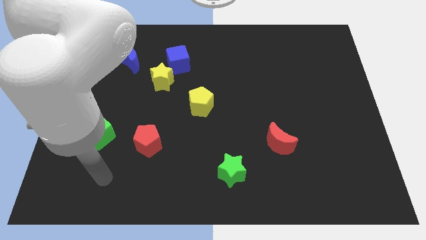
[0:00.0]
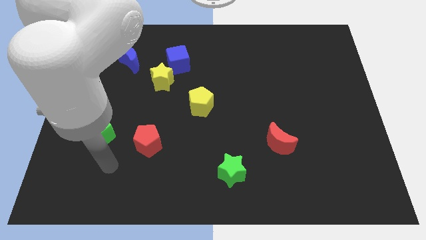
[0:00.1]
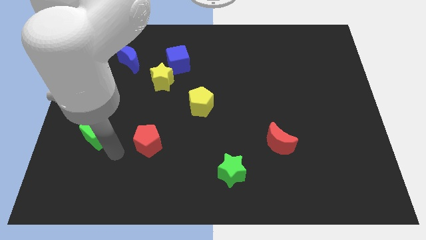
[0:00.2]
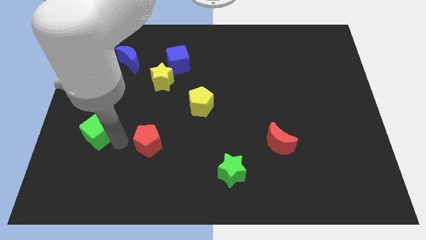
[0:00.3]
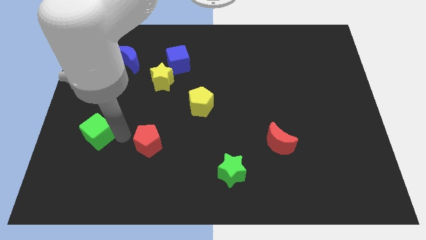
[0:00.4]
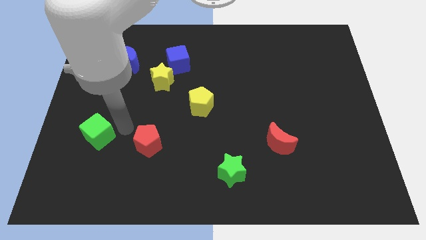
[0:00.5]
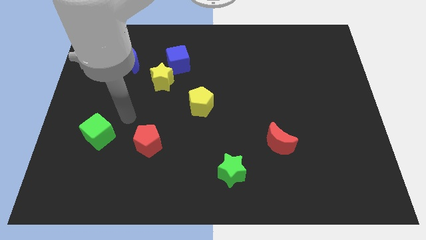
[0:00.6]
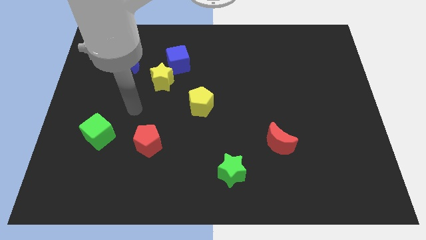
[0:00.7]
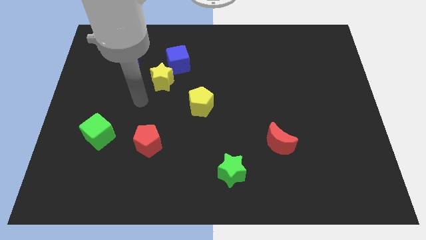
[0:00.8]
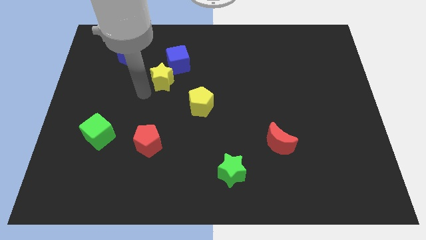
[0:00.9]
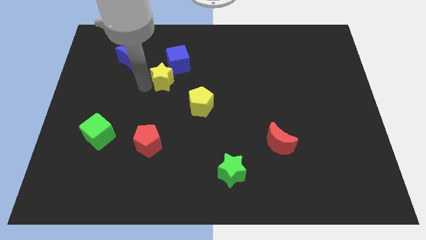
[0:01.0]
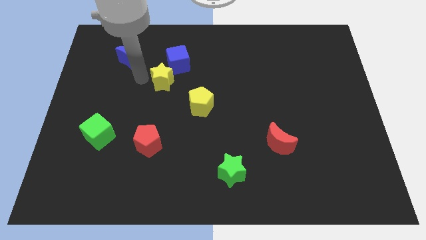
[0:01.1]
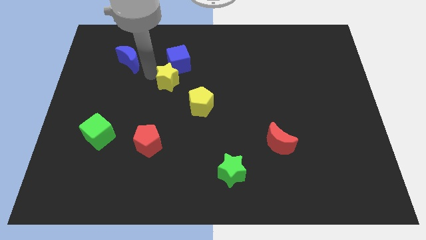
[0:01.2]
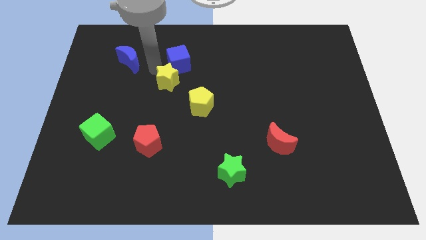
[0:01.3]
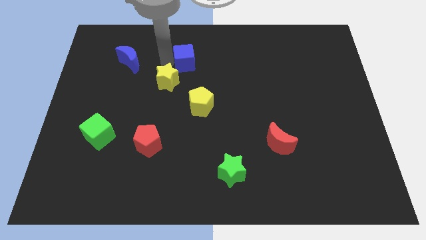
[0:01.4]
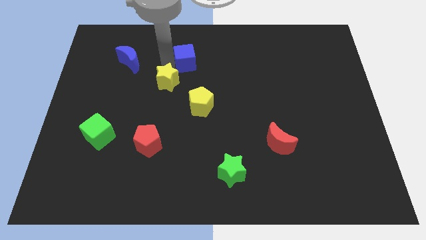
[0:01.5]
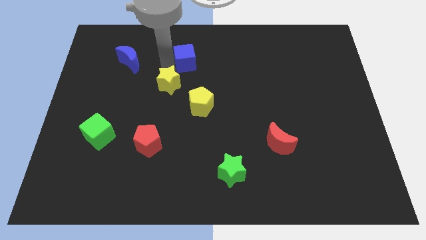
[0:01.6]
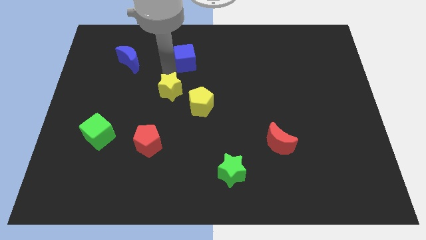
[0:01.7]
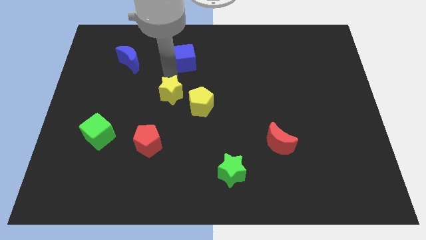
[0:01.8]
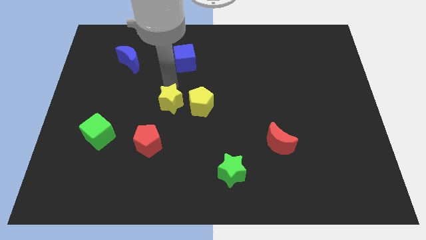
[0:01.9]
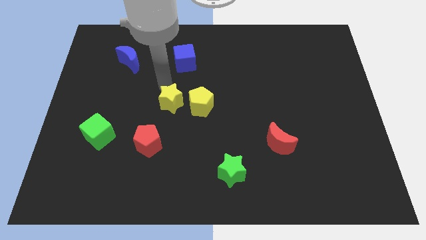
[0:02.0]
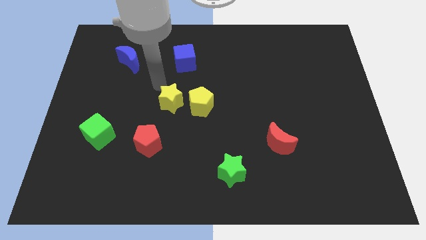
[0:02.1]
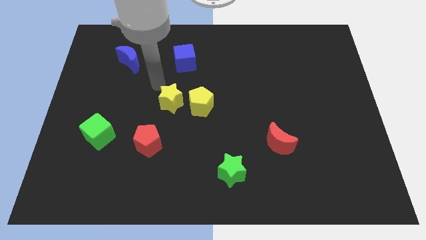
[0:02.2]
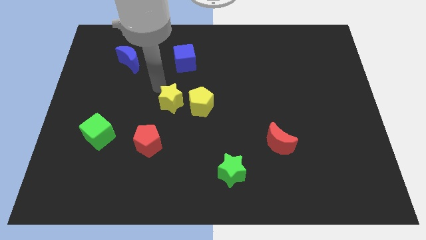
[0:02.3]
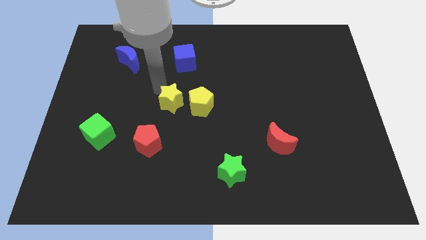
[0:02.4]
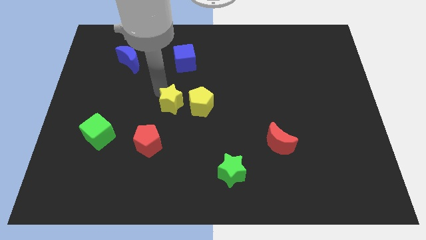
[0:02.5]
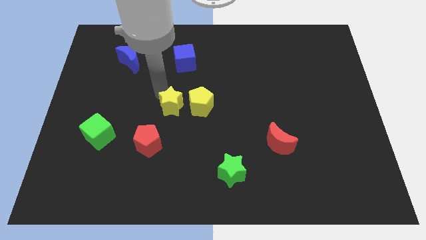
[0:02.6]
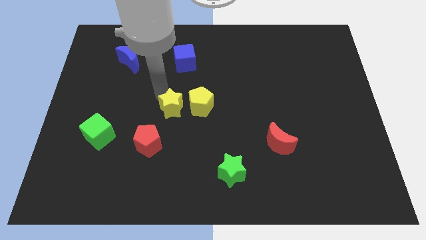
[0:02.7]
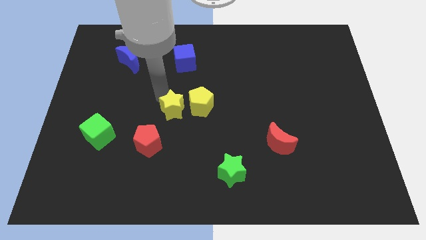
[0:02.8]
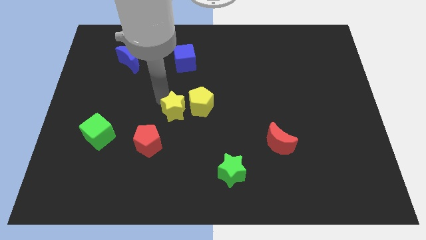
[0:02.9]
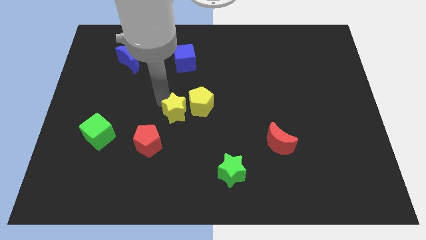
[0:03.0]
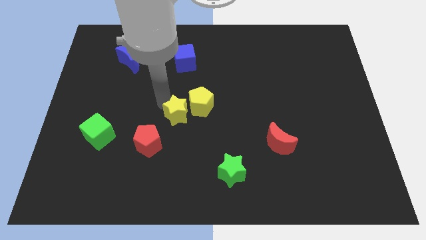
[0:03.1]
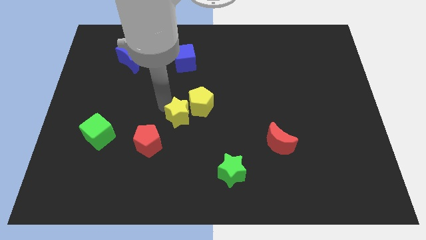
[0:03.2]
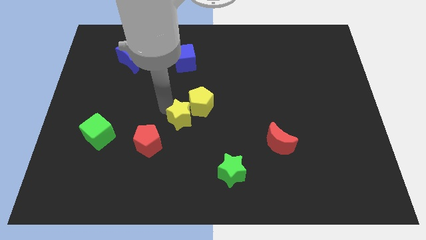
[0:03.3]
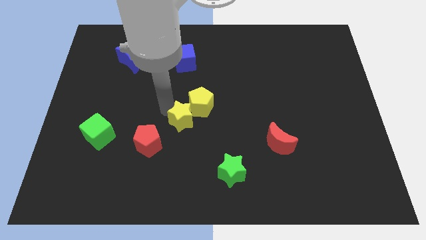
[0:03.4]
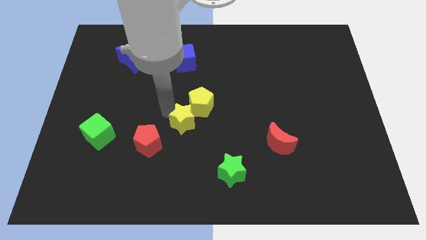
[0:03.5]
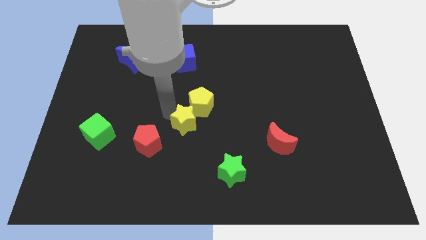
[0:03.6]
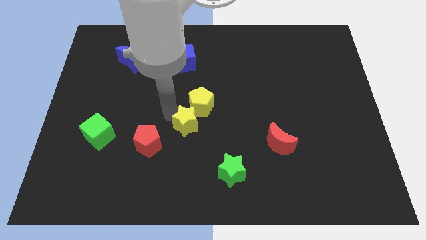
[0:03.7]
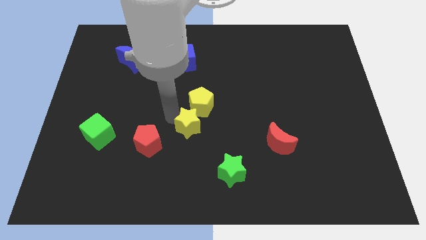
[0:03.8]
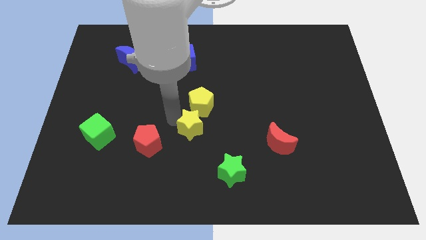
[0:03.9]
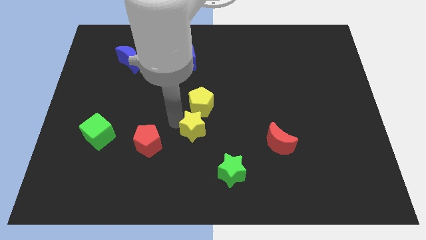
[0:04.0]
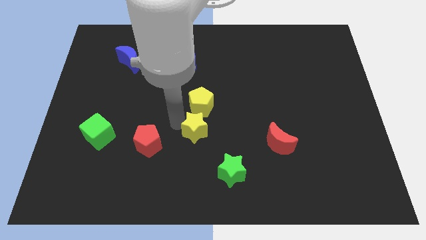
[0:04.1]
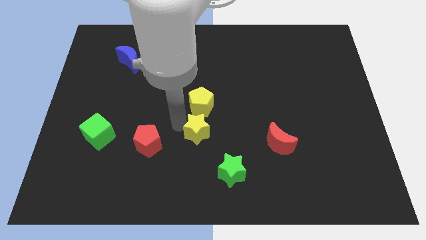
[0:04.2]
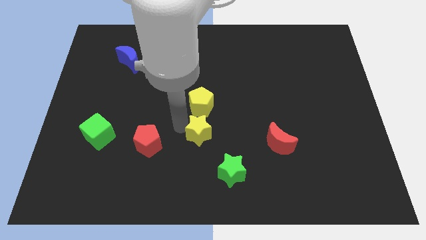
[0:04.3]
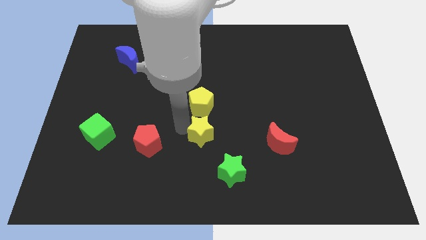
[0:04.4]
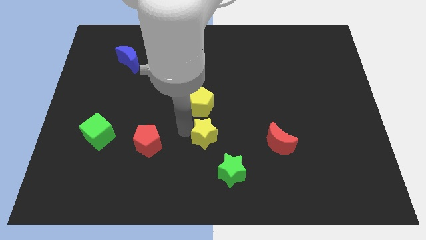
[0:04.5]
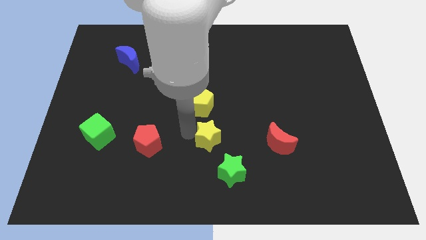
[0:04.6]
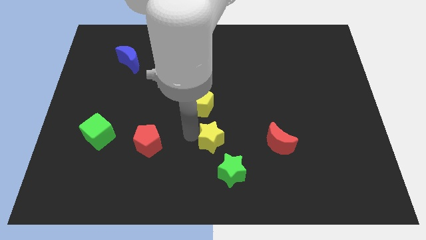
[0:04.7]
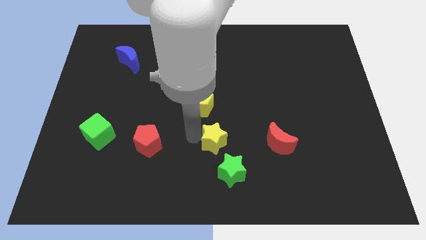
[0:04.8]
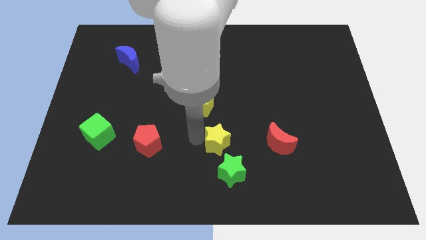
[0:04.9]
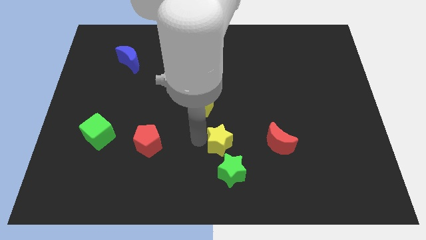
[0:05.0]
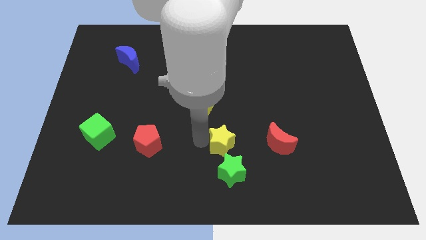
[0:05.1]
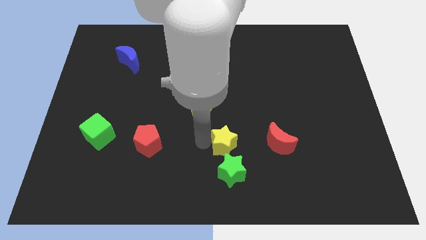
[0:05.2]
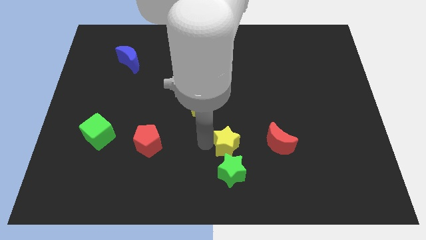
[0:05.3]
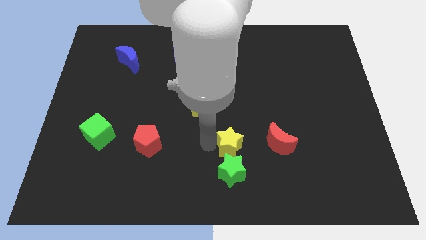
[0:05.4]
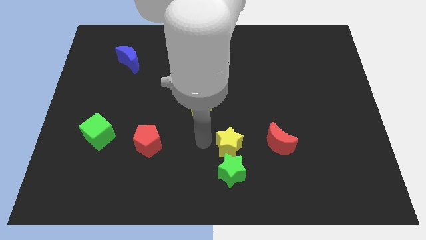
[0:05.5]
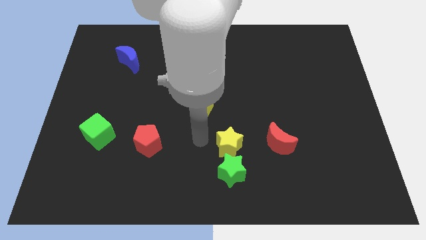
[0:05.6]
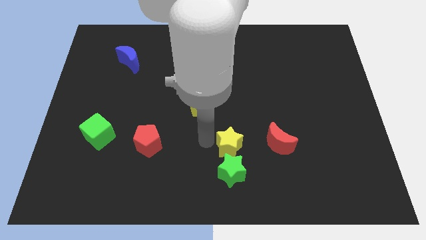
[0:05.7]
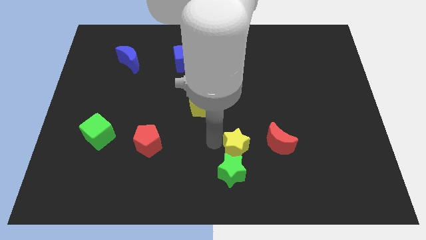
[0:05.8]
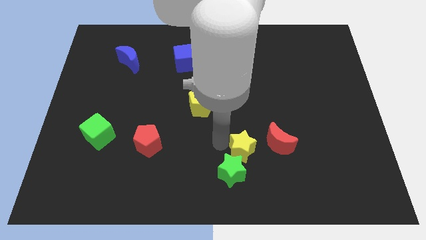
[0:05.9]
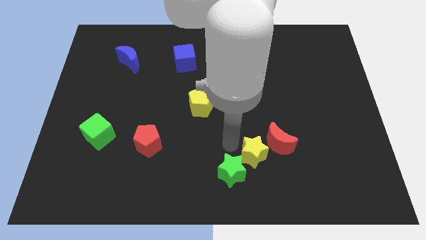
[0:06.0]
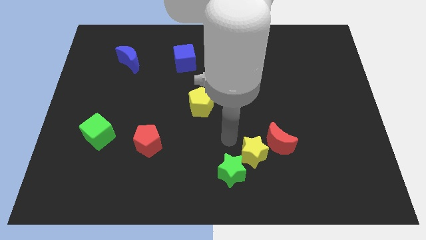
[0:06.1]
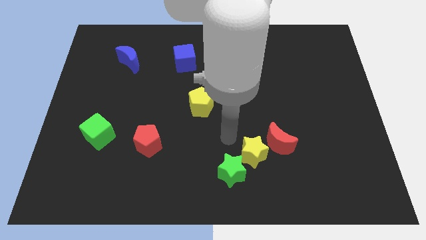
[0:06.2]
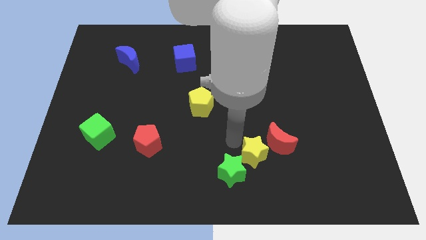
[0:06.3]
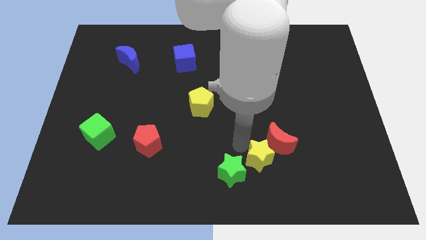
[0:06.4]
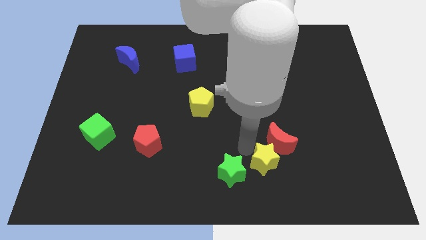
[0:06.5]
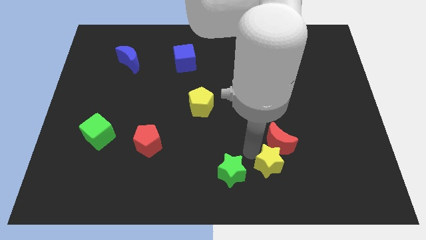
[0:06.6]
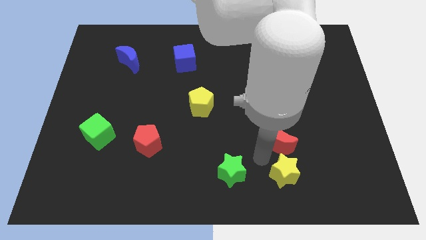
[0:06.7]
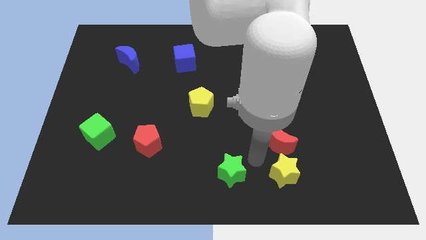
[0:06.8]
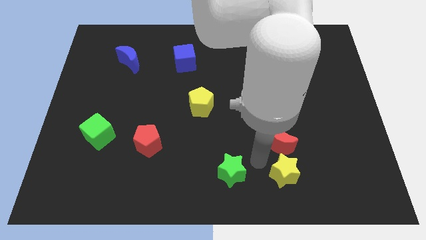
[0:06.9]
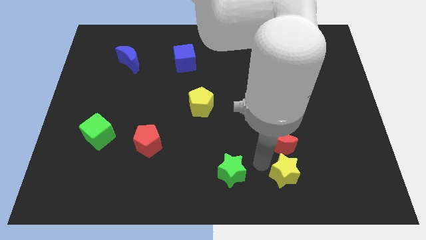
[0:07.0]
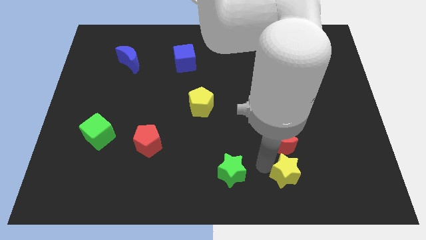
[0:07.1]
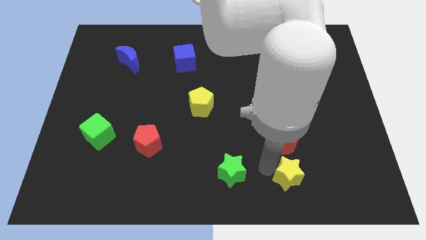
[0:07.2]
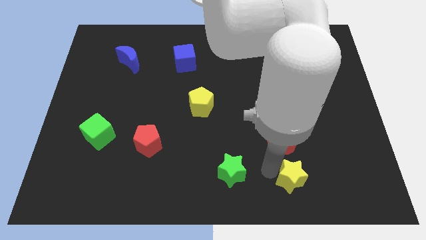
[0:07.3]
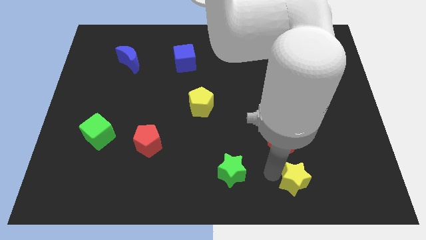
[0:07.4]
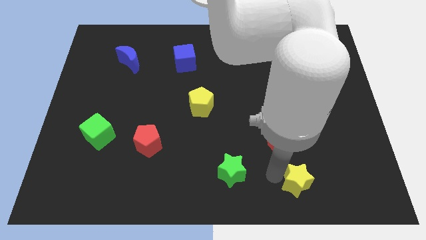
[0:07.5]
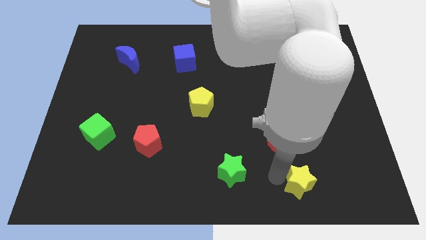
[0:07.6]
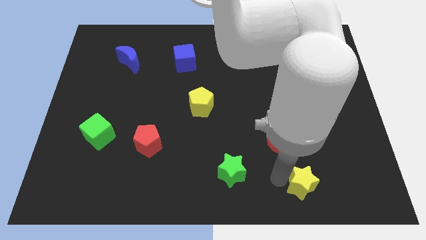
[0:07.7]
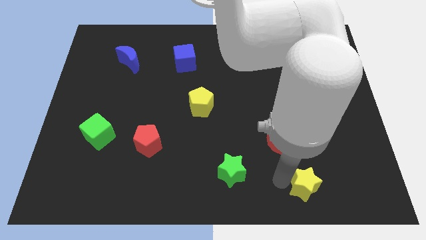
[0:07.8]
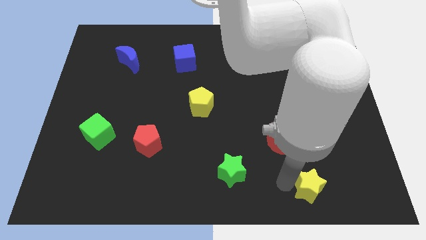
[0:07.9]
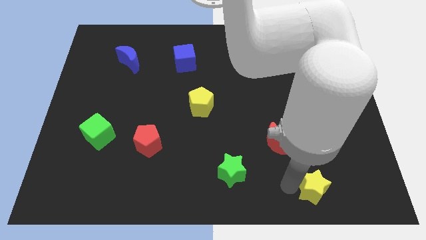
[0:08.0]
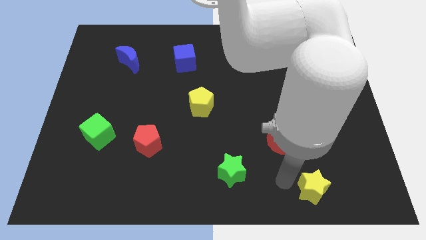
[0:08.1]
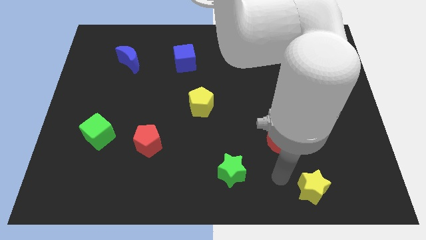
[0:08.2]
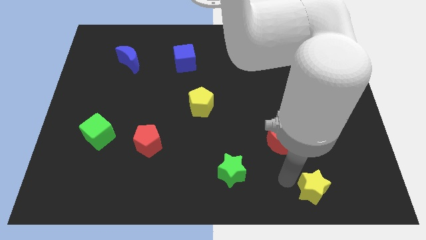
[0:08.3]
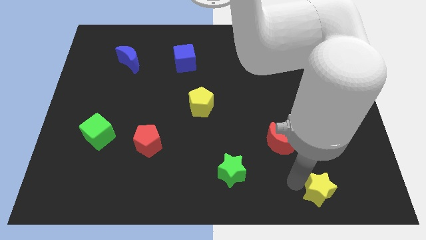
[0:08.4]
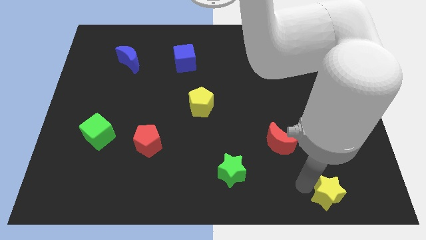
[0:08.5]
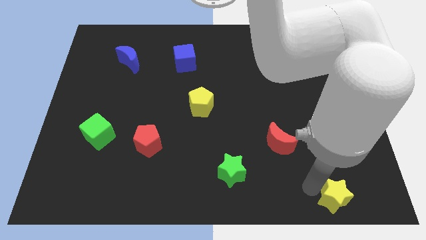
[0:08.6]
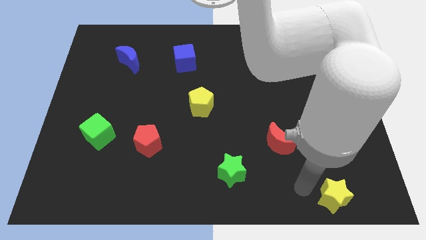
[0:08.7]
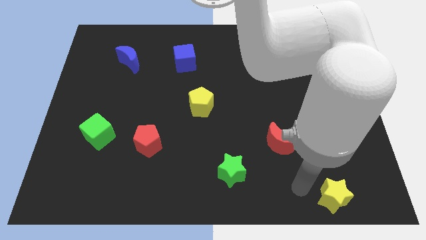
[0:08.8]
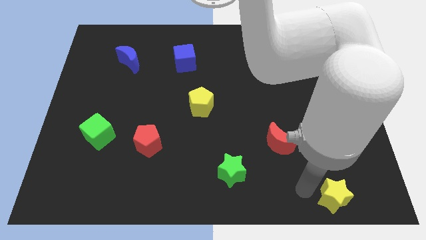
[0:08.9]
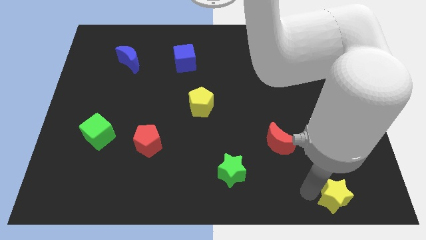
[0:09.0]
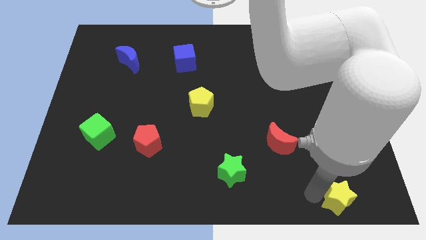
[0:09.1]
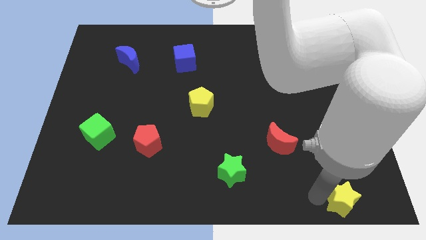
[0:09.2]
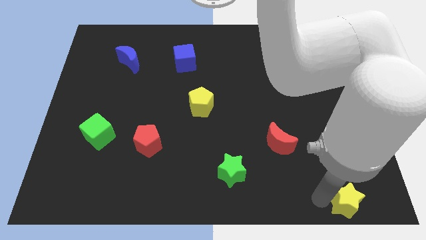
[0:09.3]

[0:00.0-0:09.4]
put the yellow star to the bottom right corner
